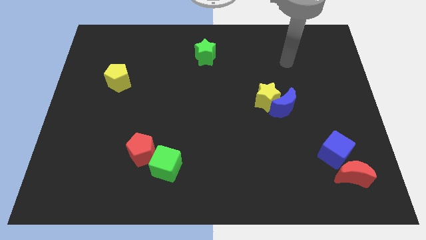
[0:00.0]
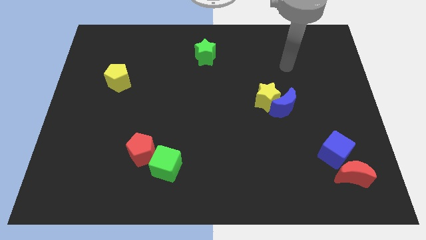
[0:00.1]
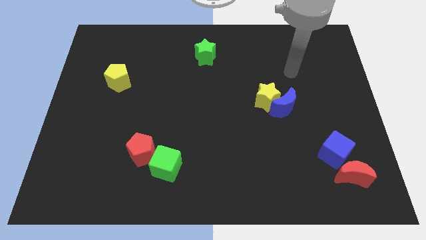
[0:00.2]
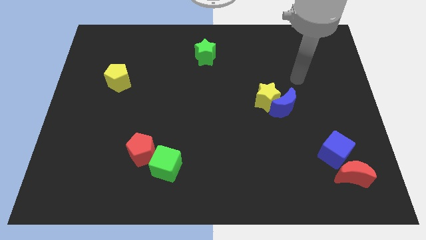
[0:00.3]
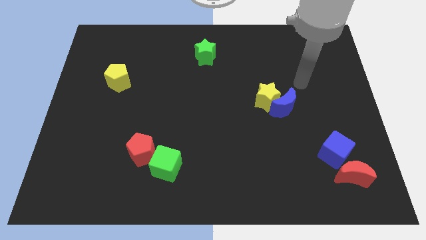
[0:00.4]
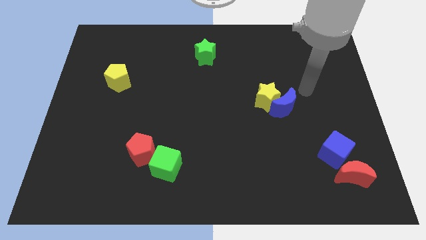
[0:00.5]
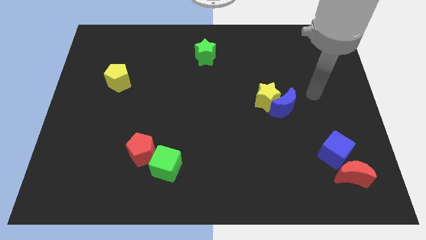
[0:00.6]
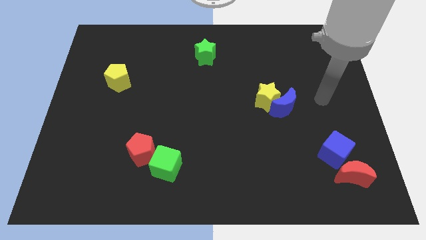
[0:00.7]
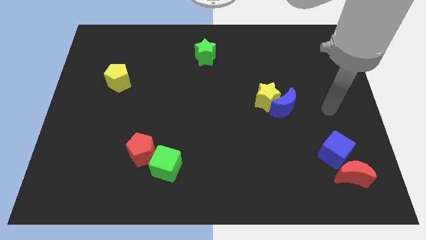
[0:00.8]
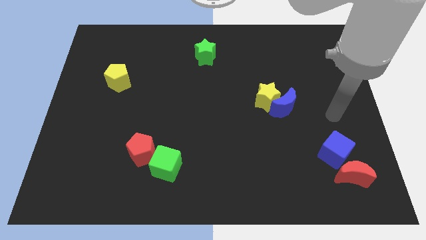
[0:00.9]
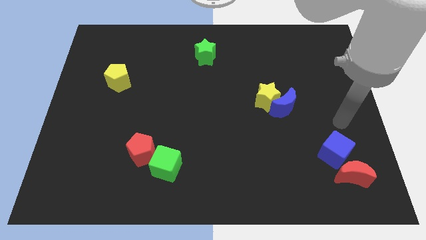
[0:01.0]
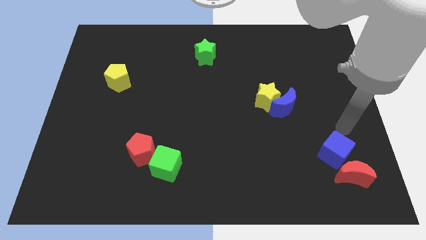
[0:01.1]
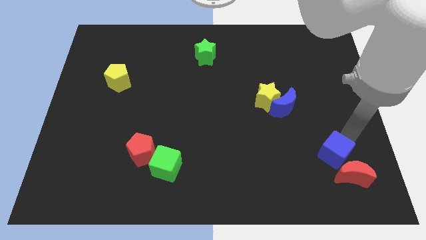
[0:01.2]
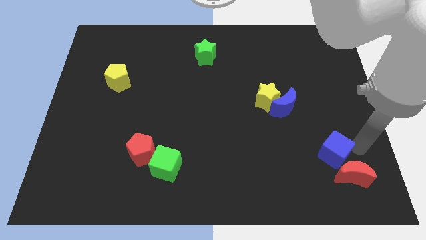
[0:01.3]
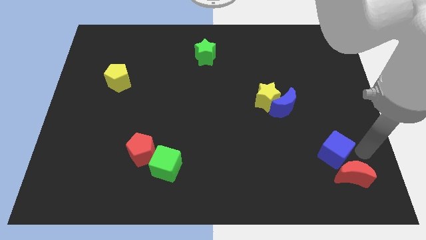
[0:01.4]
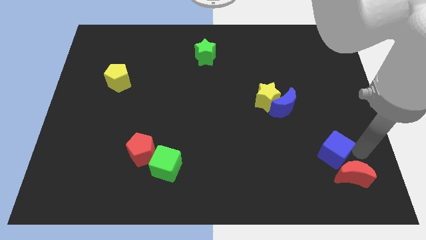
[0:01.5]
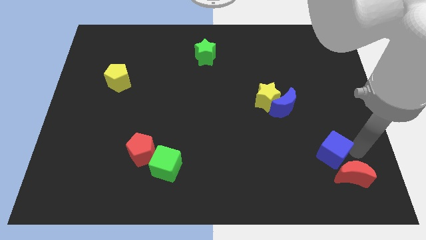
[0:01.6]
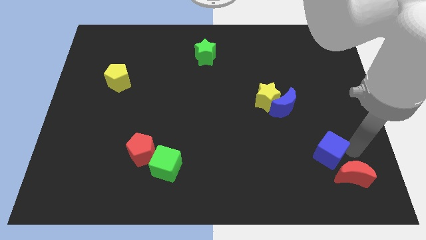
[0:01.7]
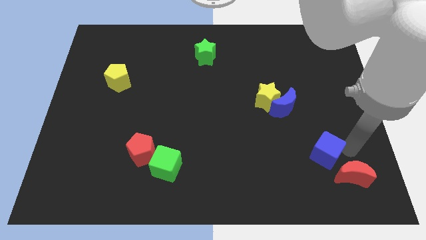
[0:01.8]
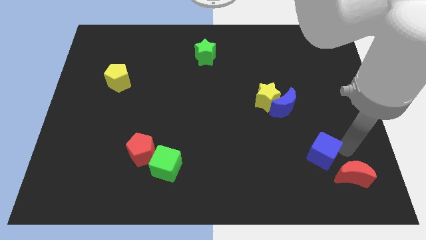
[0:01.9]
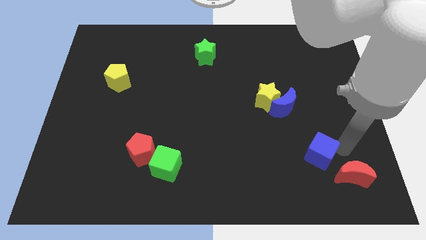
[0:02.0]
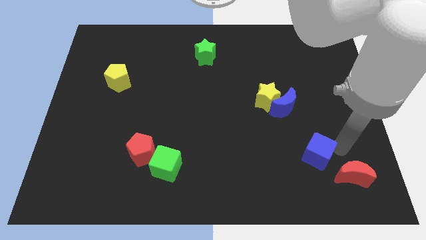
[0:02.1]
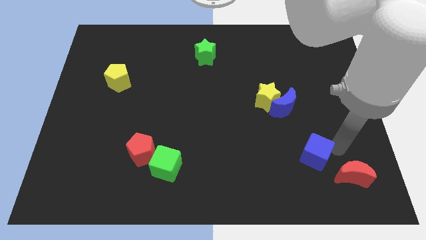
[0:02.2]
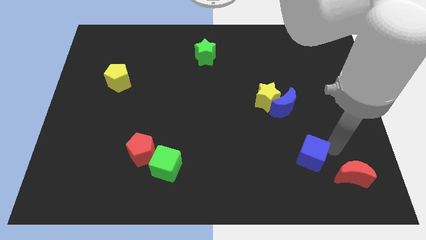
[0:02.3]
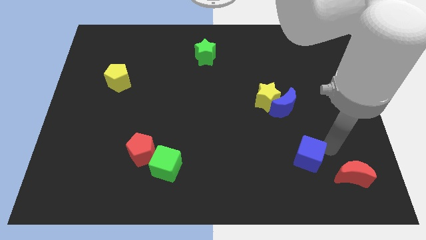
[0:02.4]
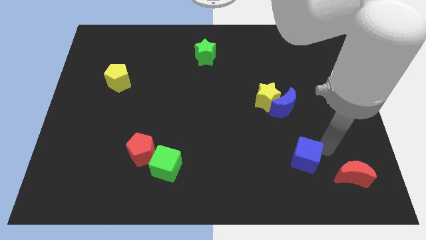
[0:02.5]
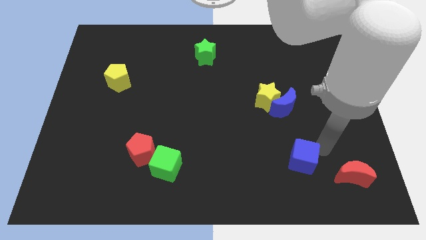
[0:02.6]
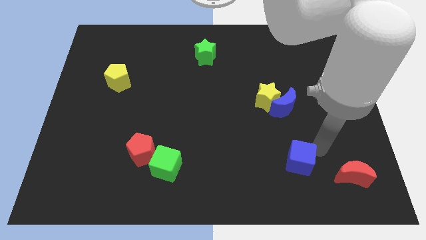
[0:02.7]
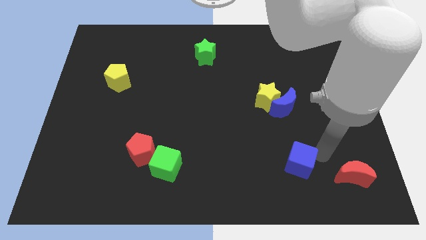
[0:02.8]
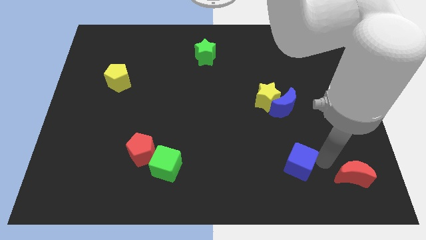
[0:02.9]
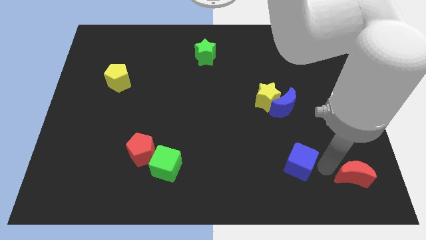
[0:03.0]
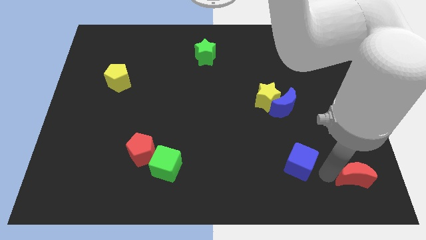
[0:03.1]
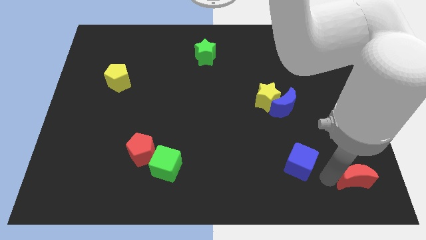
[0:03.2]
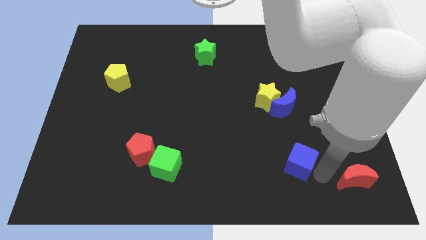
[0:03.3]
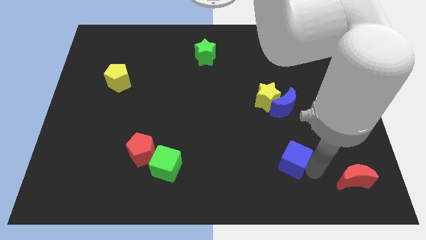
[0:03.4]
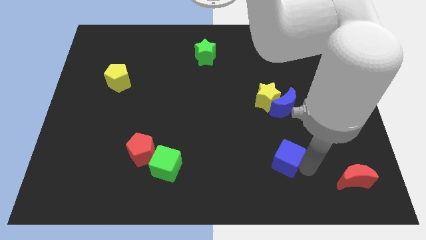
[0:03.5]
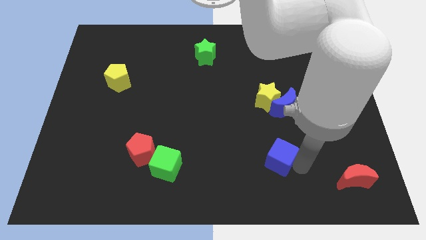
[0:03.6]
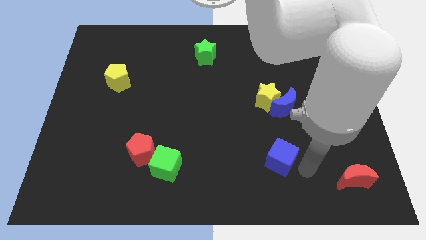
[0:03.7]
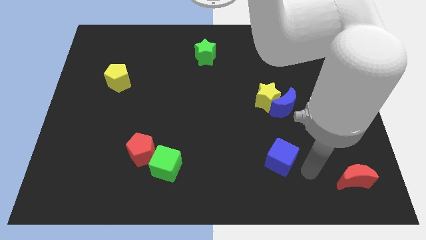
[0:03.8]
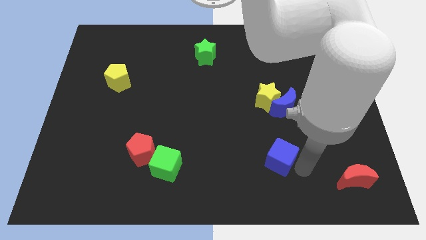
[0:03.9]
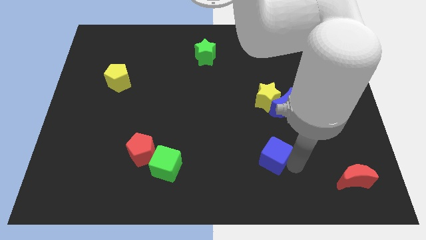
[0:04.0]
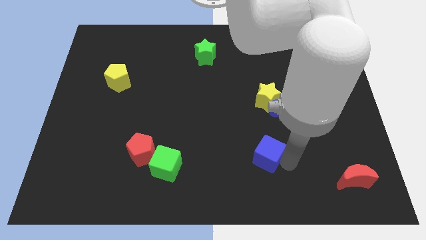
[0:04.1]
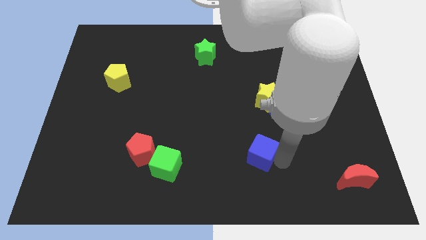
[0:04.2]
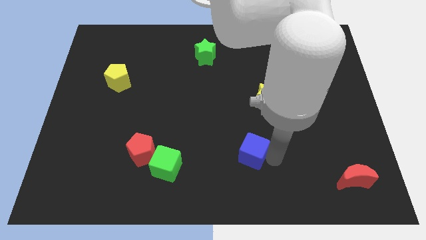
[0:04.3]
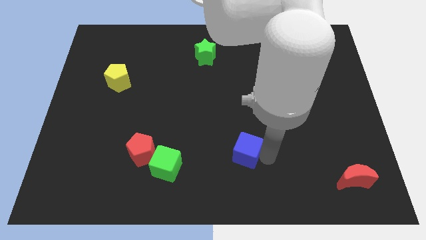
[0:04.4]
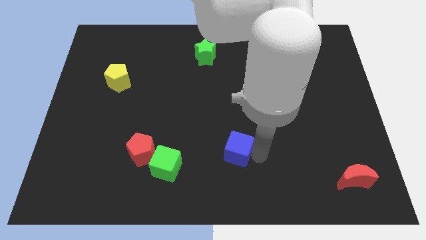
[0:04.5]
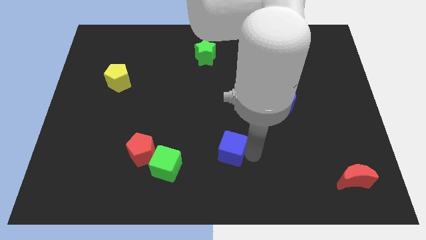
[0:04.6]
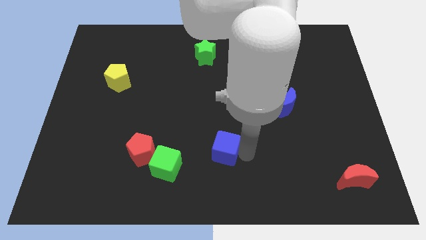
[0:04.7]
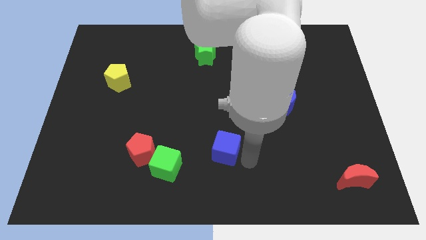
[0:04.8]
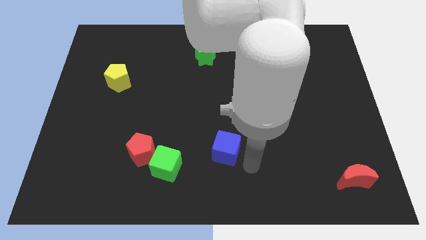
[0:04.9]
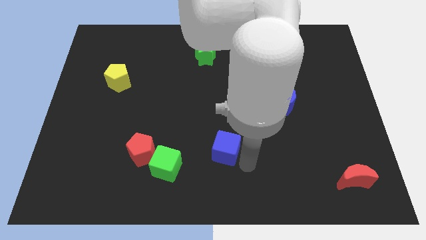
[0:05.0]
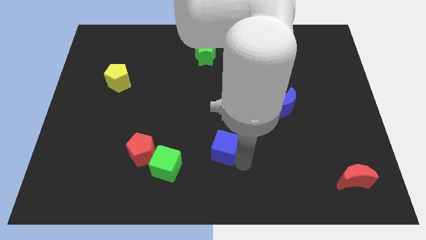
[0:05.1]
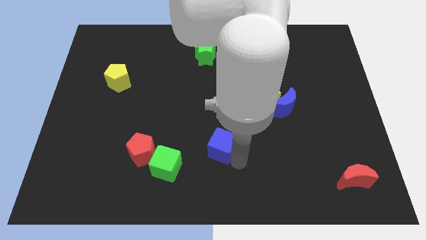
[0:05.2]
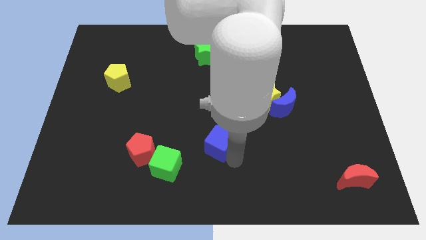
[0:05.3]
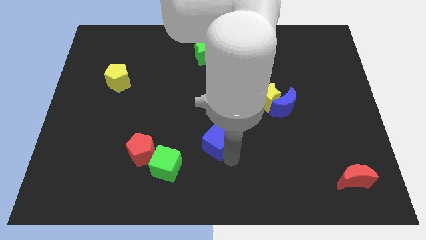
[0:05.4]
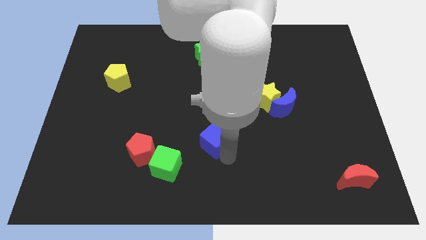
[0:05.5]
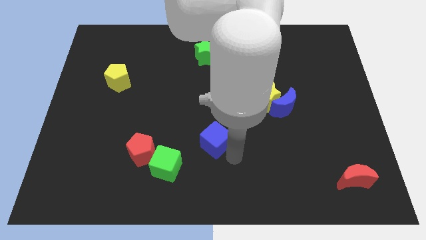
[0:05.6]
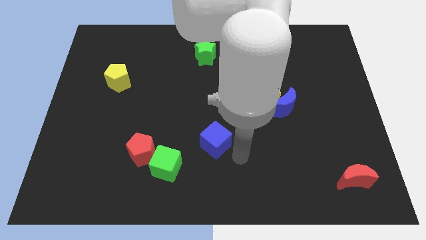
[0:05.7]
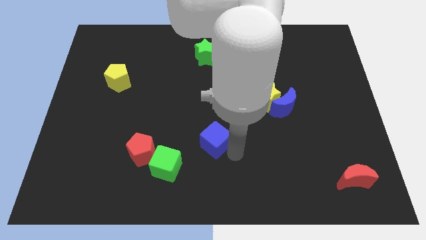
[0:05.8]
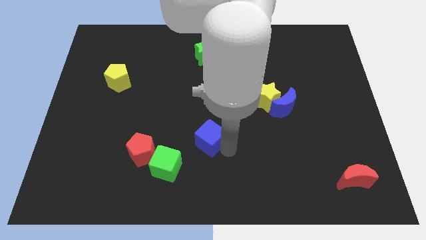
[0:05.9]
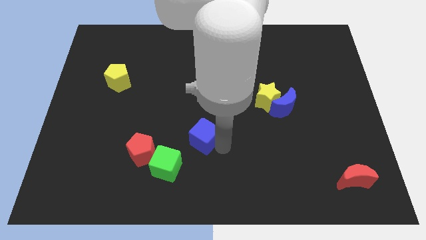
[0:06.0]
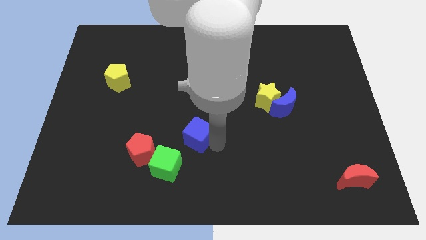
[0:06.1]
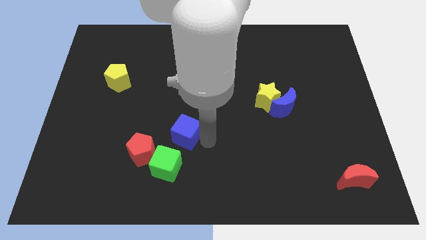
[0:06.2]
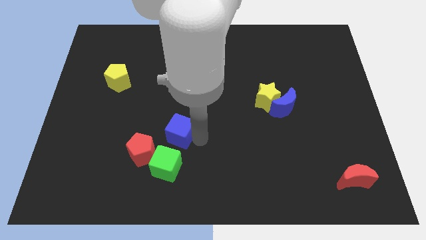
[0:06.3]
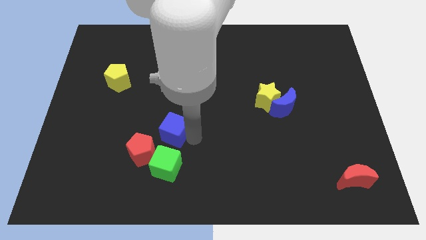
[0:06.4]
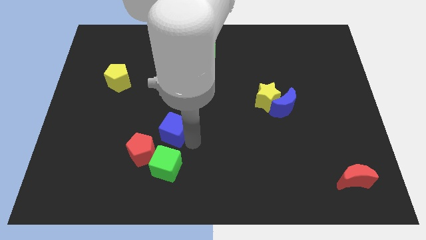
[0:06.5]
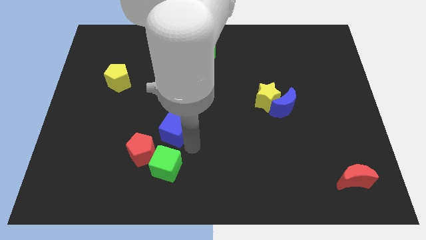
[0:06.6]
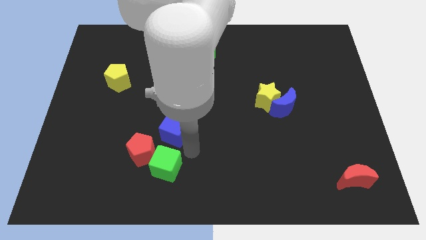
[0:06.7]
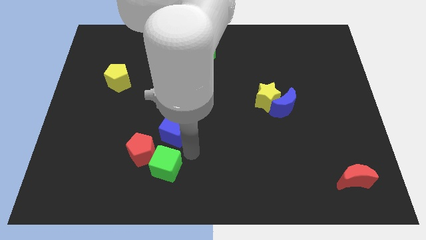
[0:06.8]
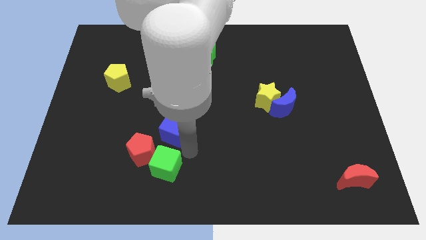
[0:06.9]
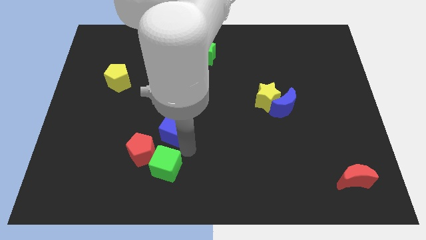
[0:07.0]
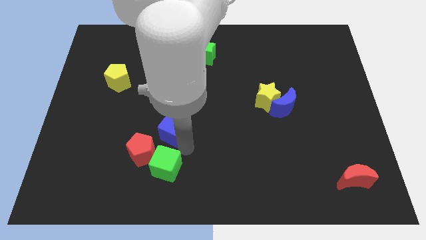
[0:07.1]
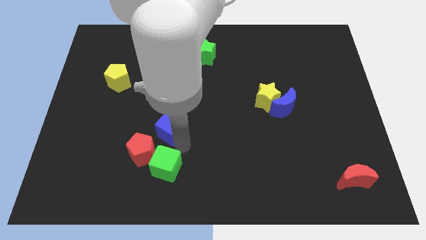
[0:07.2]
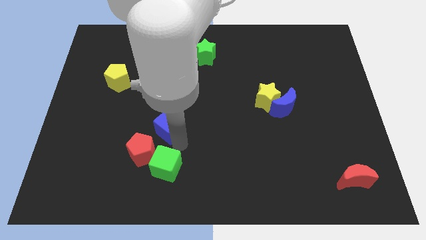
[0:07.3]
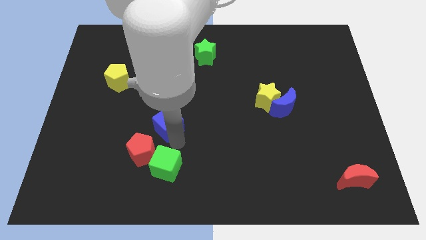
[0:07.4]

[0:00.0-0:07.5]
push the blue cube to the top side of the red pentagon

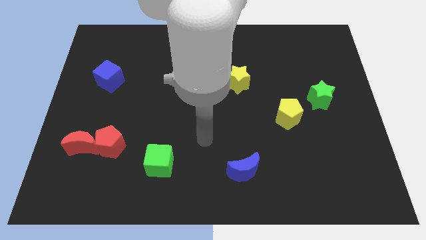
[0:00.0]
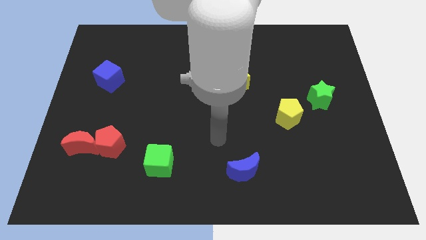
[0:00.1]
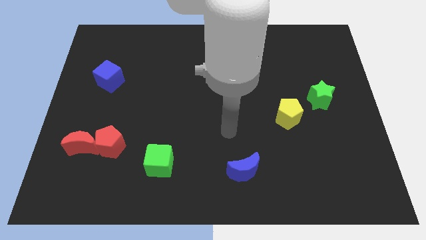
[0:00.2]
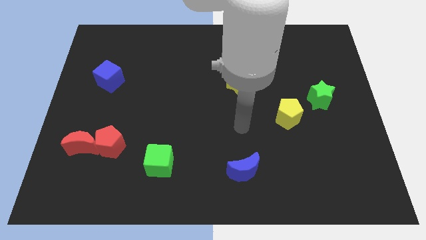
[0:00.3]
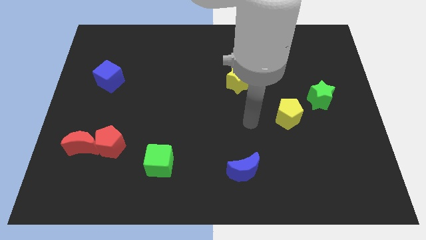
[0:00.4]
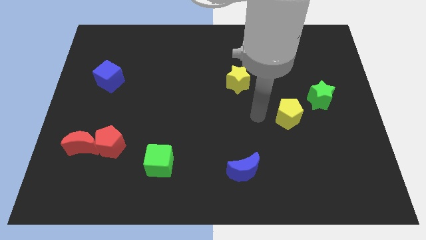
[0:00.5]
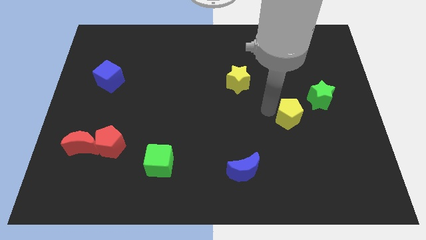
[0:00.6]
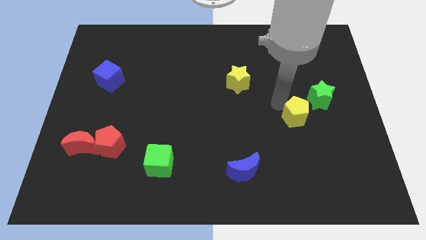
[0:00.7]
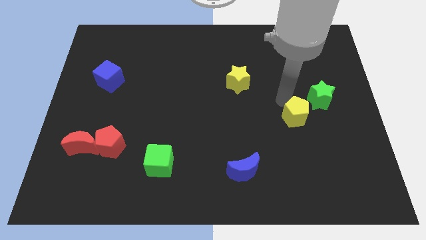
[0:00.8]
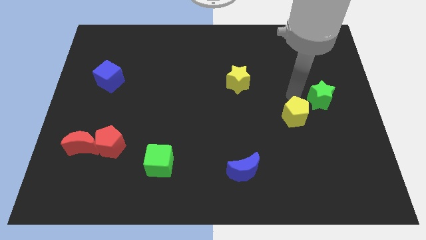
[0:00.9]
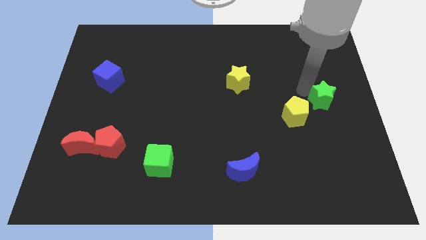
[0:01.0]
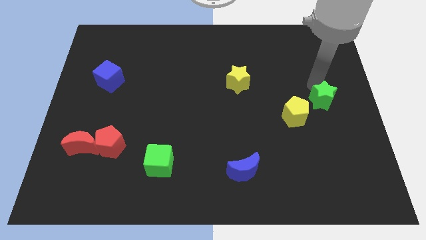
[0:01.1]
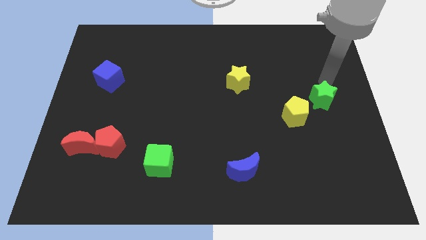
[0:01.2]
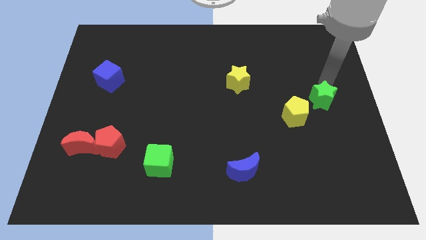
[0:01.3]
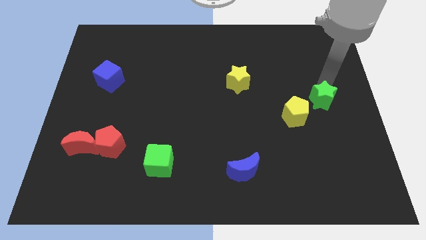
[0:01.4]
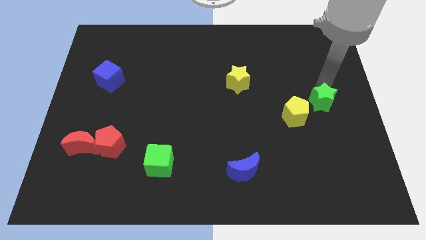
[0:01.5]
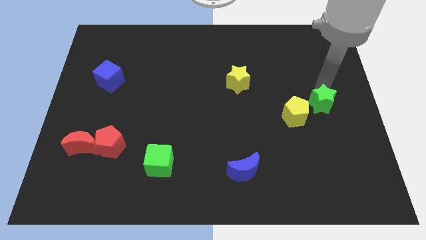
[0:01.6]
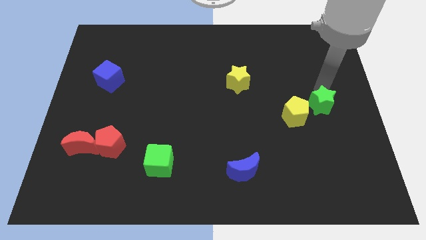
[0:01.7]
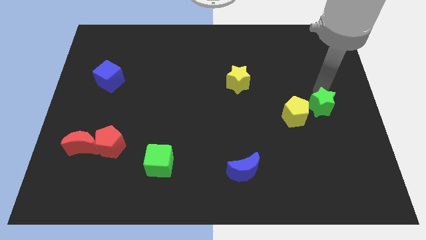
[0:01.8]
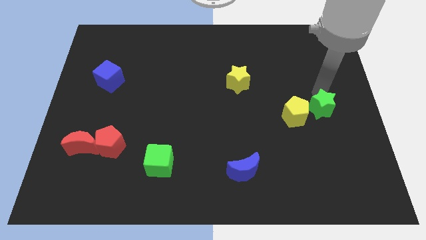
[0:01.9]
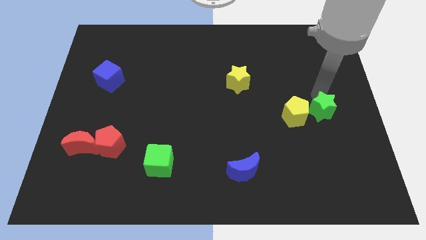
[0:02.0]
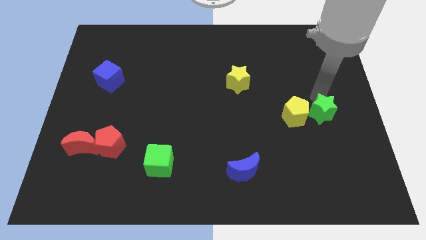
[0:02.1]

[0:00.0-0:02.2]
move the green star to the bottom right side of the yellow pentagon
